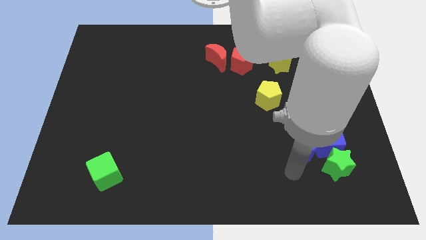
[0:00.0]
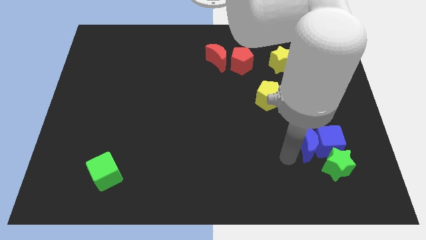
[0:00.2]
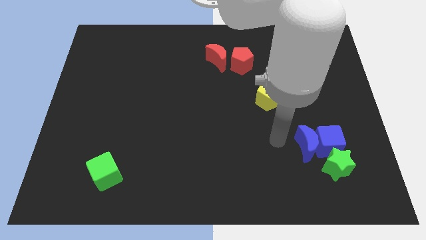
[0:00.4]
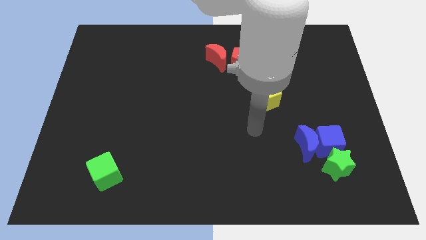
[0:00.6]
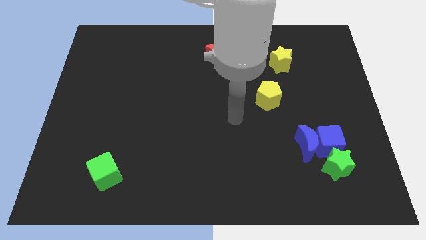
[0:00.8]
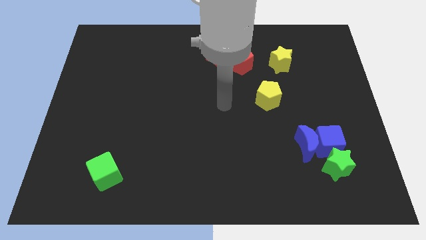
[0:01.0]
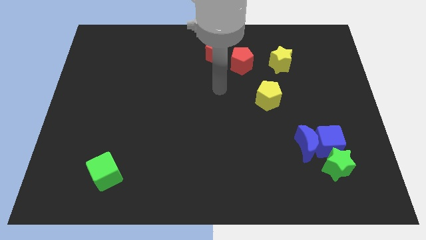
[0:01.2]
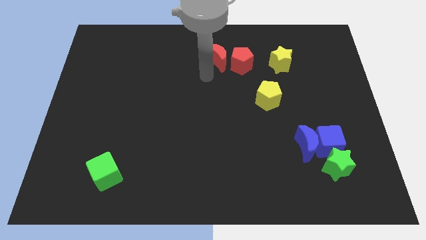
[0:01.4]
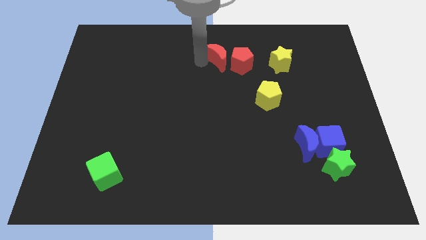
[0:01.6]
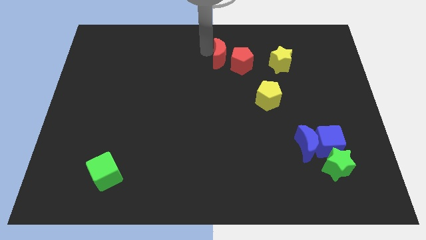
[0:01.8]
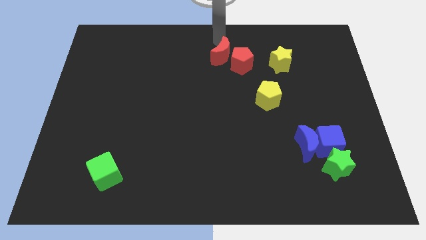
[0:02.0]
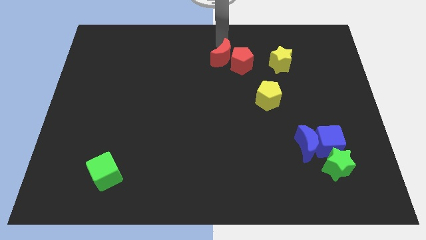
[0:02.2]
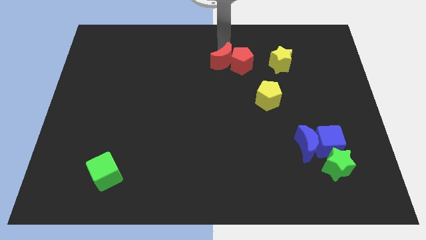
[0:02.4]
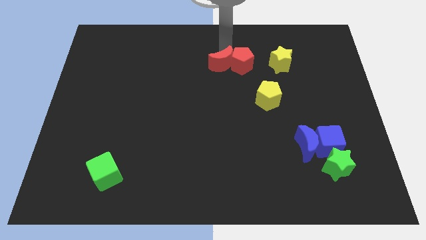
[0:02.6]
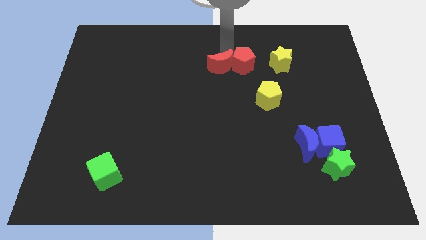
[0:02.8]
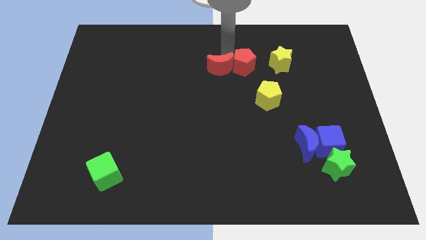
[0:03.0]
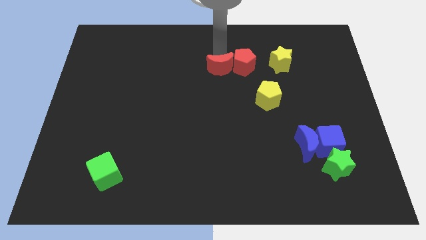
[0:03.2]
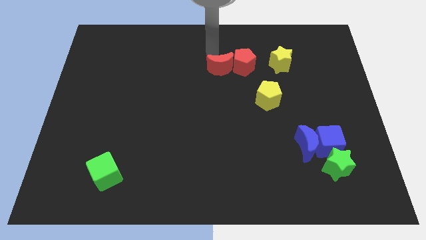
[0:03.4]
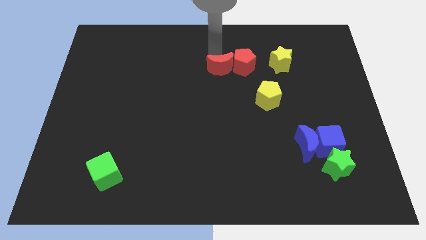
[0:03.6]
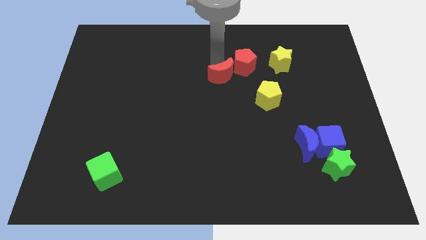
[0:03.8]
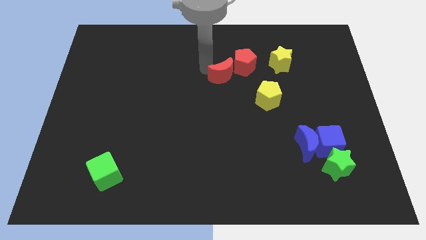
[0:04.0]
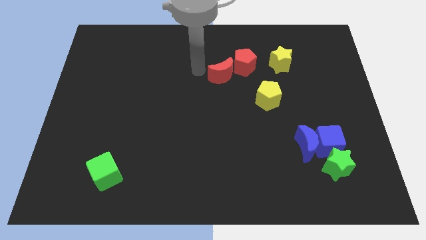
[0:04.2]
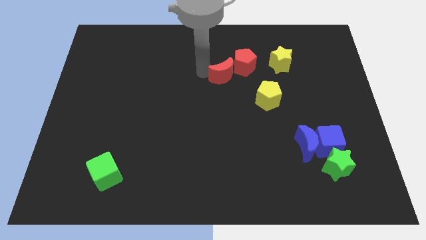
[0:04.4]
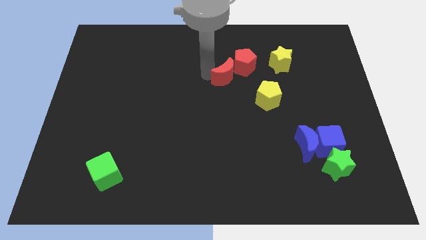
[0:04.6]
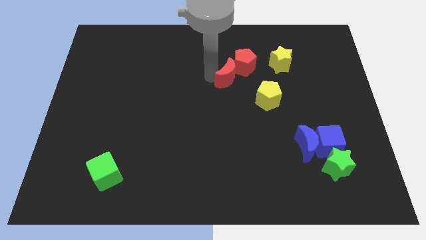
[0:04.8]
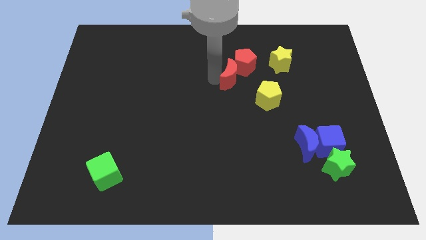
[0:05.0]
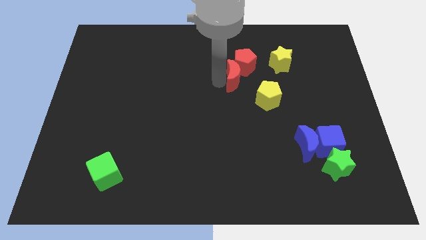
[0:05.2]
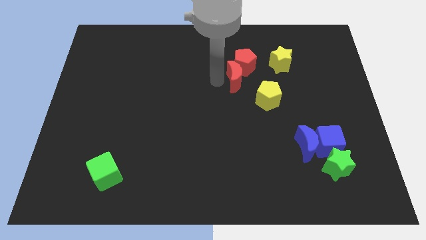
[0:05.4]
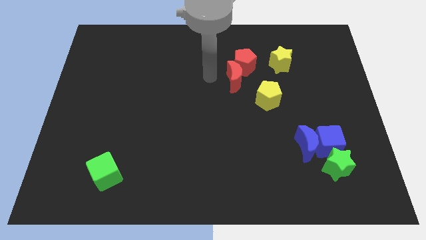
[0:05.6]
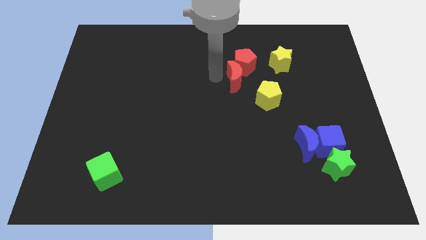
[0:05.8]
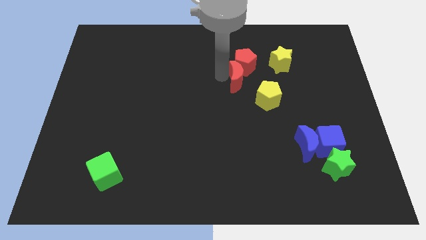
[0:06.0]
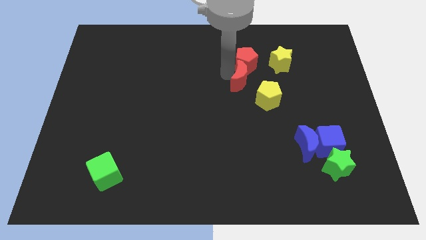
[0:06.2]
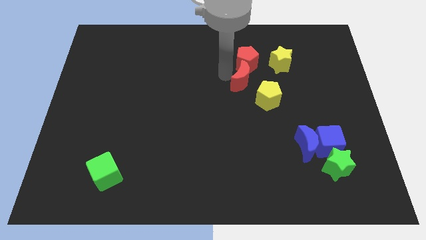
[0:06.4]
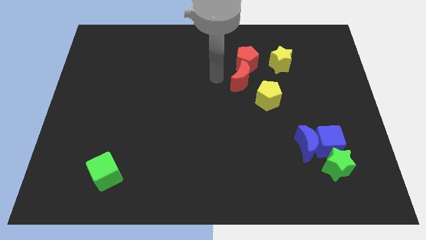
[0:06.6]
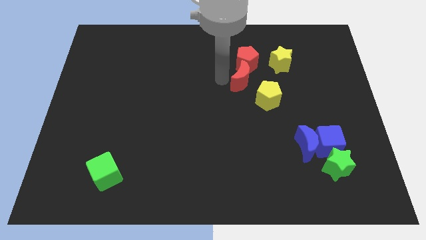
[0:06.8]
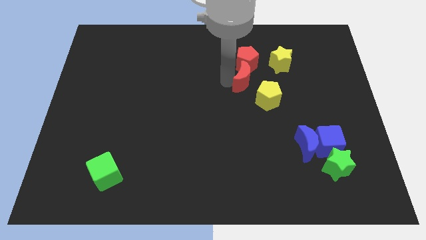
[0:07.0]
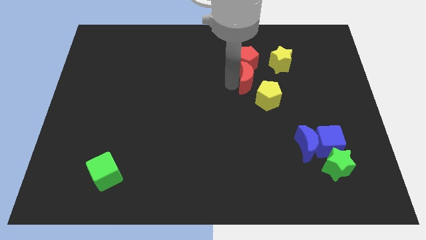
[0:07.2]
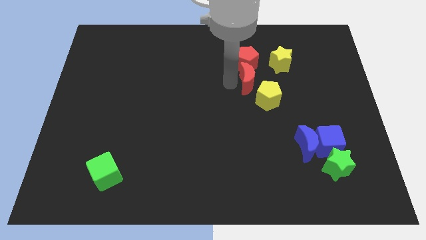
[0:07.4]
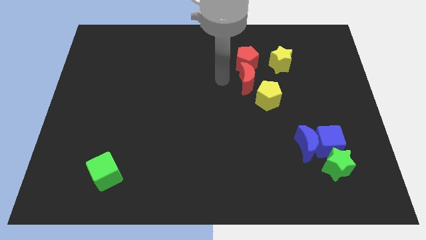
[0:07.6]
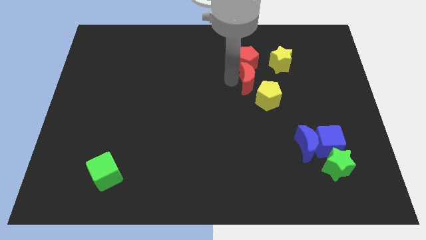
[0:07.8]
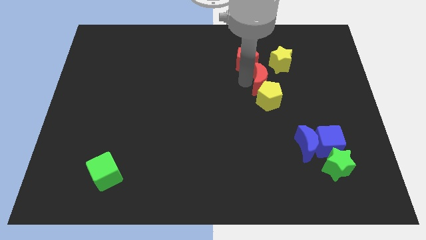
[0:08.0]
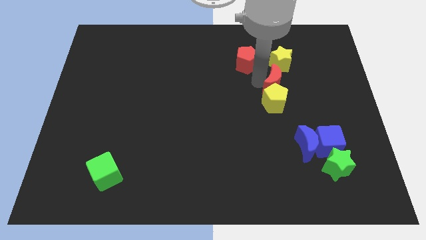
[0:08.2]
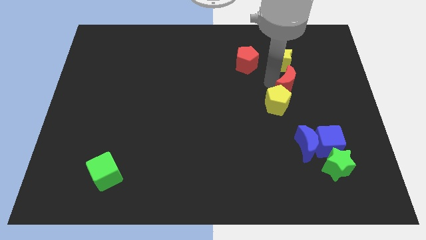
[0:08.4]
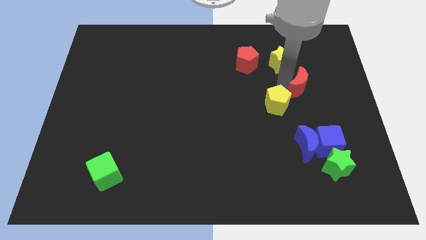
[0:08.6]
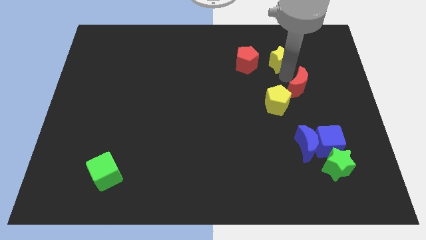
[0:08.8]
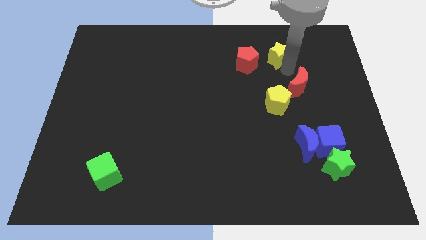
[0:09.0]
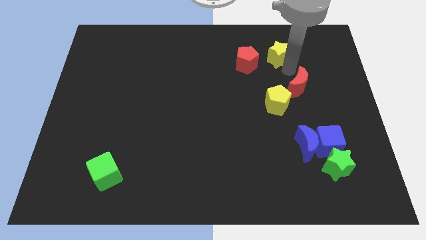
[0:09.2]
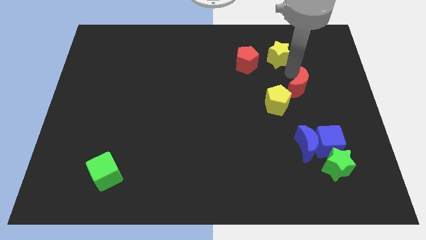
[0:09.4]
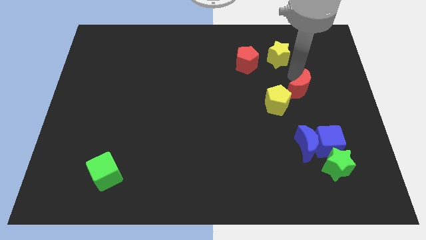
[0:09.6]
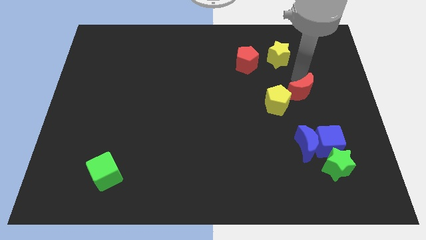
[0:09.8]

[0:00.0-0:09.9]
slide the red moon to the top of the blue cube

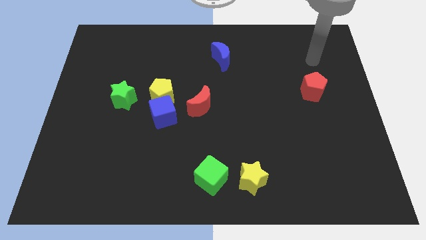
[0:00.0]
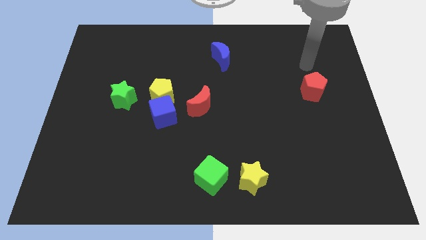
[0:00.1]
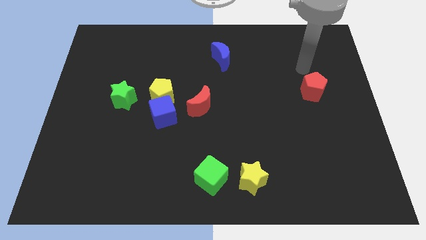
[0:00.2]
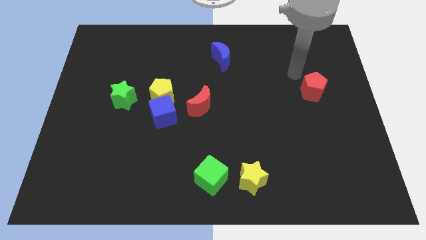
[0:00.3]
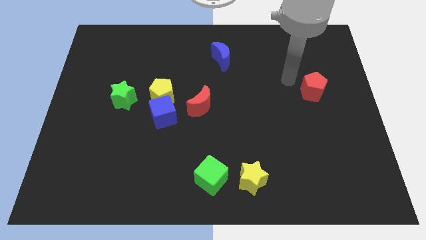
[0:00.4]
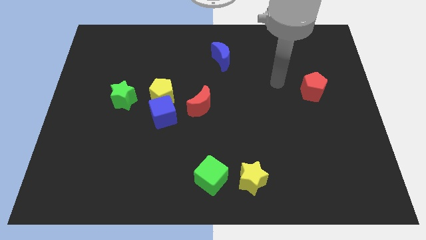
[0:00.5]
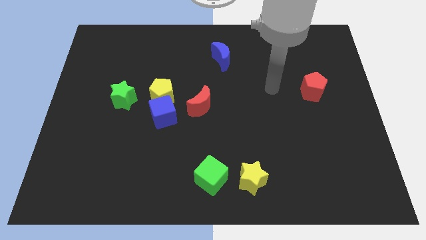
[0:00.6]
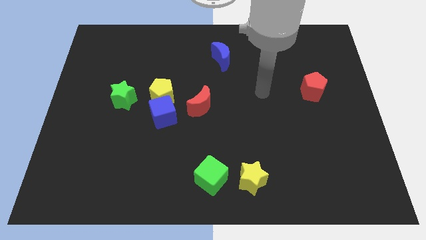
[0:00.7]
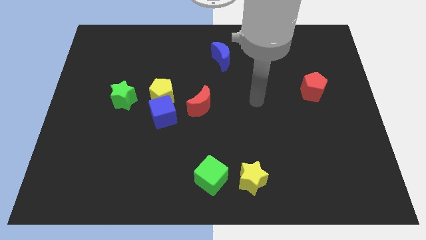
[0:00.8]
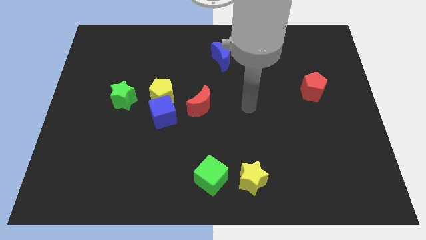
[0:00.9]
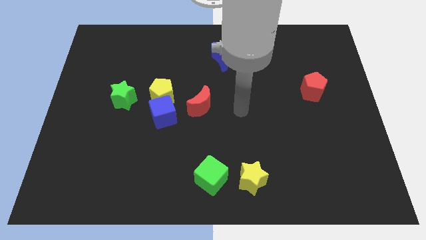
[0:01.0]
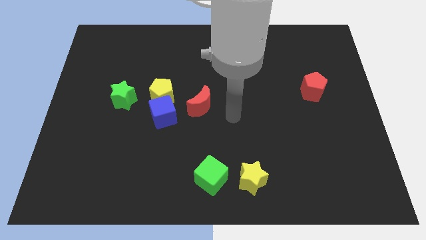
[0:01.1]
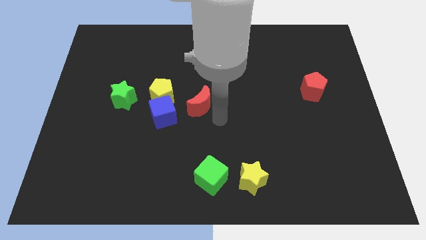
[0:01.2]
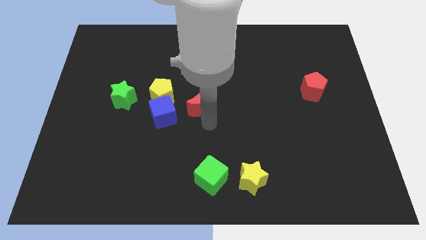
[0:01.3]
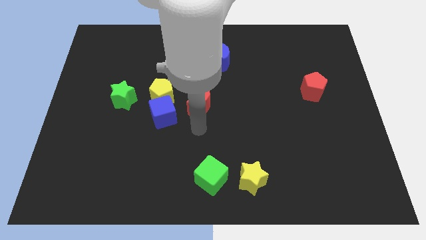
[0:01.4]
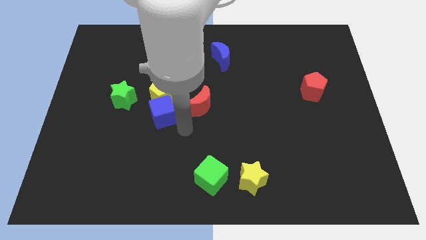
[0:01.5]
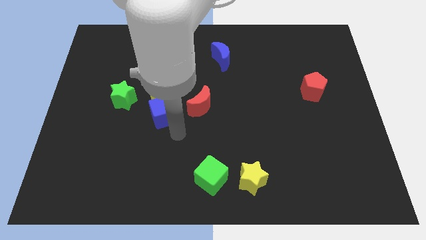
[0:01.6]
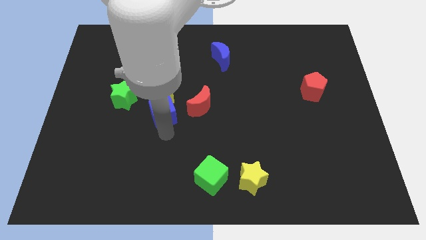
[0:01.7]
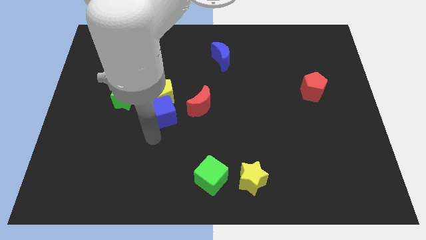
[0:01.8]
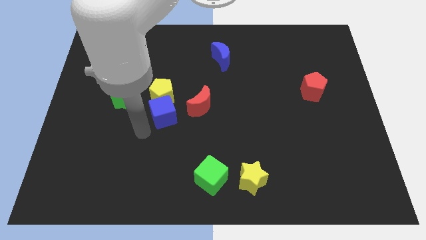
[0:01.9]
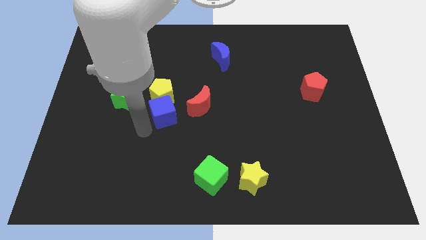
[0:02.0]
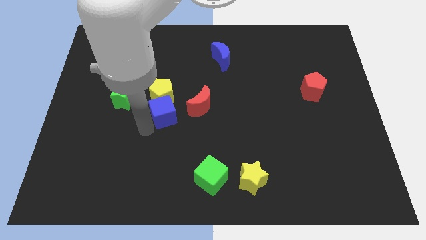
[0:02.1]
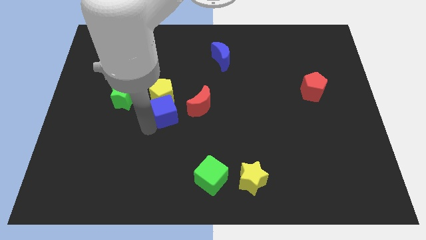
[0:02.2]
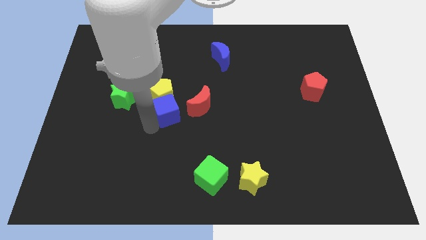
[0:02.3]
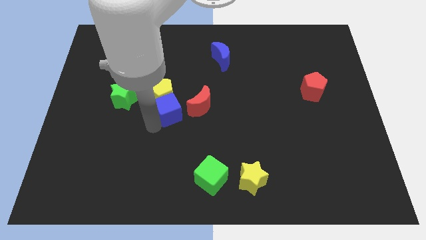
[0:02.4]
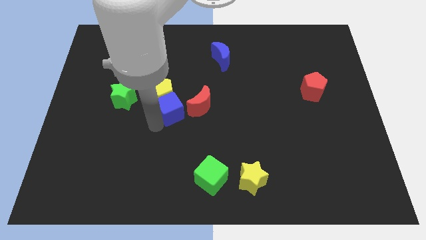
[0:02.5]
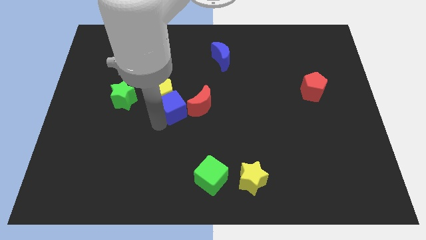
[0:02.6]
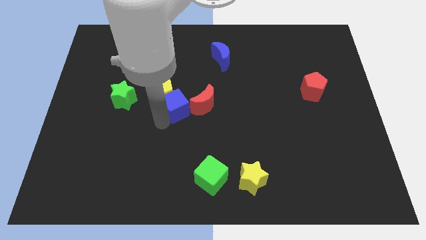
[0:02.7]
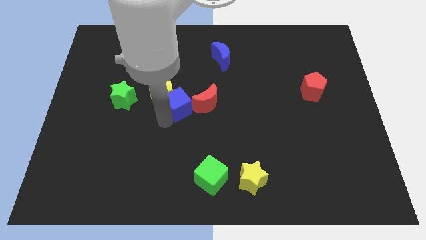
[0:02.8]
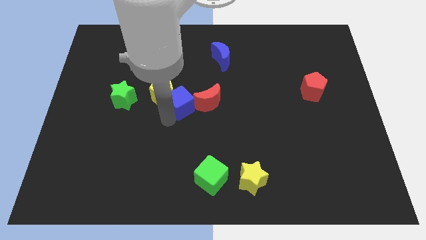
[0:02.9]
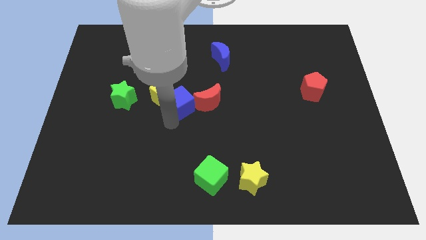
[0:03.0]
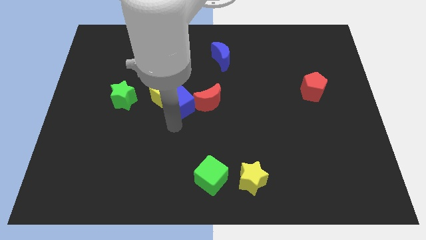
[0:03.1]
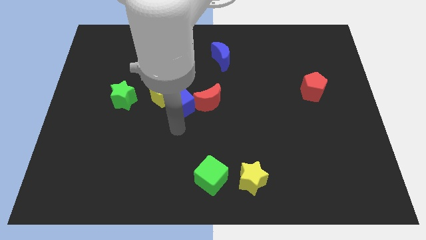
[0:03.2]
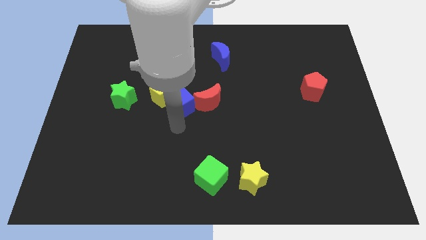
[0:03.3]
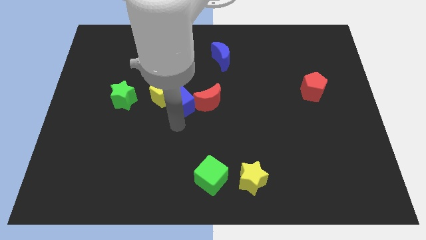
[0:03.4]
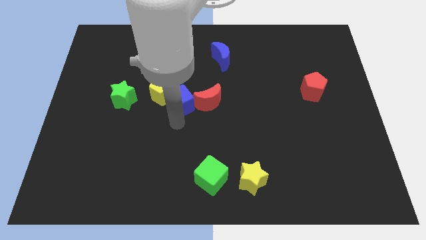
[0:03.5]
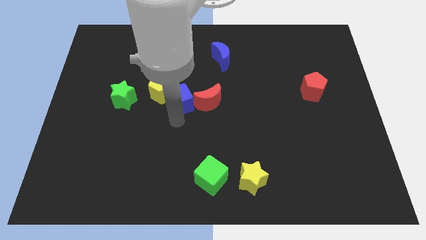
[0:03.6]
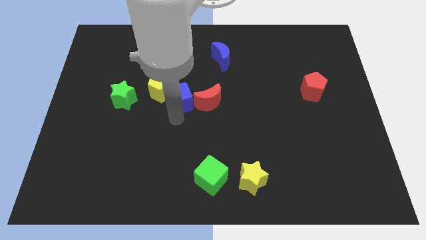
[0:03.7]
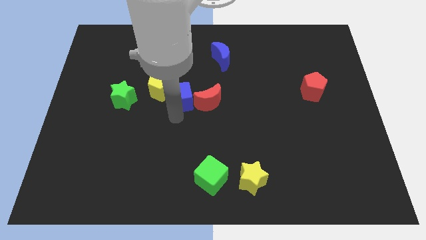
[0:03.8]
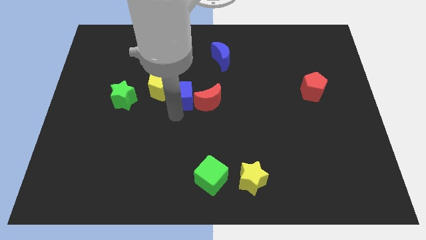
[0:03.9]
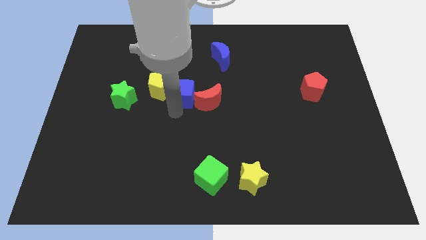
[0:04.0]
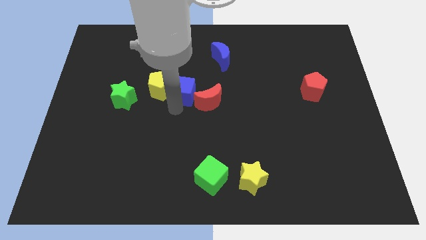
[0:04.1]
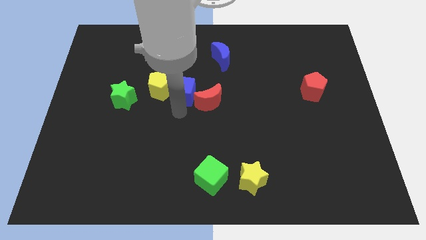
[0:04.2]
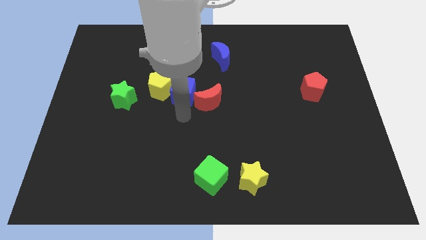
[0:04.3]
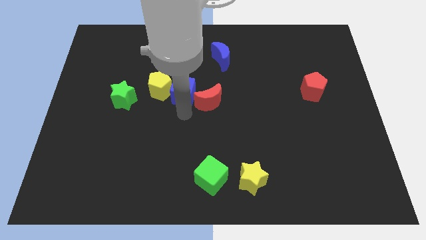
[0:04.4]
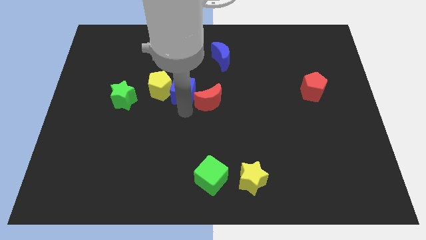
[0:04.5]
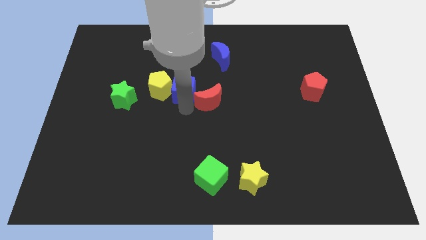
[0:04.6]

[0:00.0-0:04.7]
put the blue cube to the top right side of the yellow pentagon
